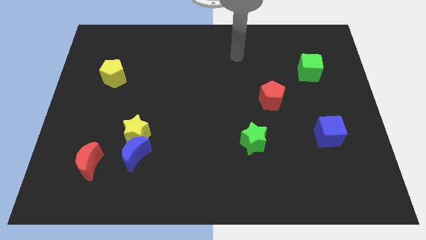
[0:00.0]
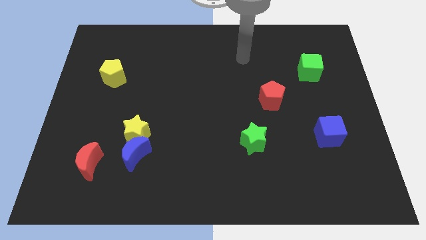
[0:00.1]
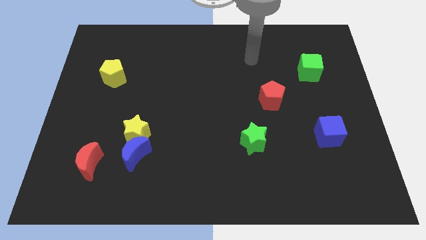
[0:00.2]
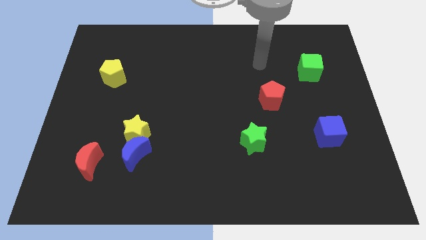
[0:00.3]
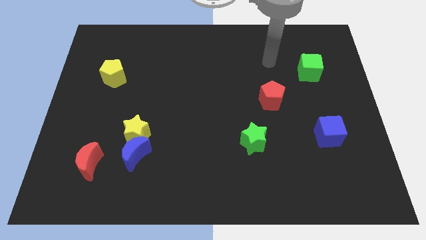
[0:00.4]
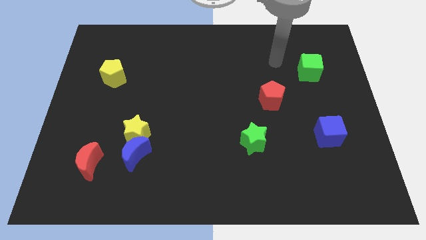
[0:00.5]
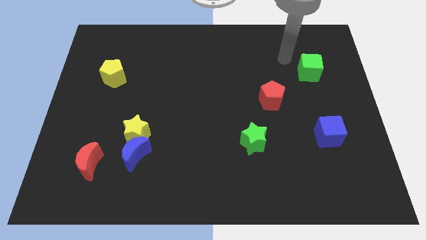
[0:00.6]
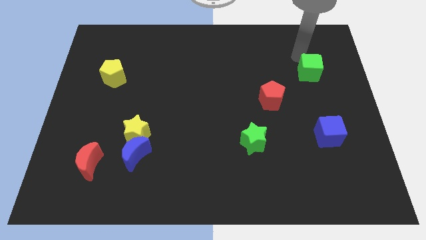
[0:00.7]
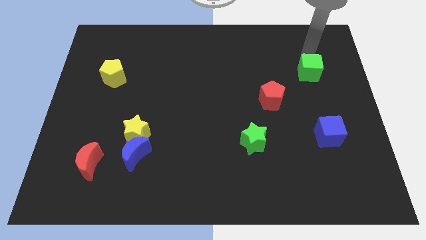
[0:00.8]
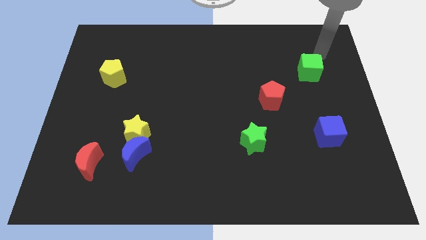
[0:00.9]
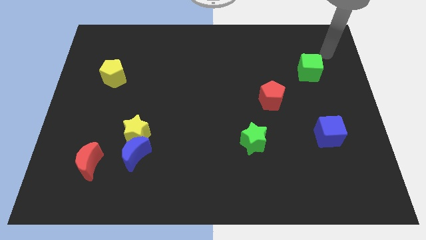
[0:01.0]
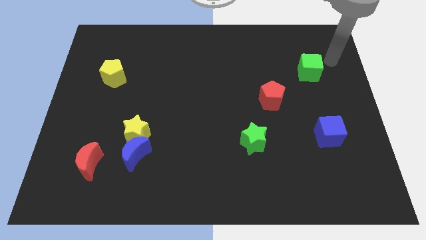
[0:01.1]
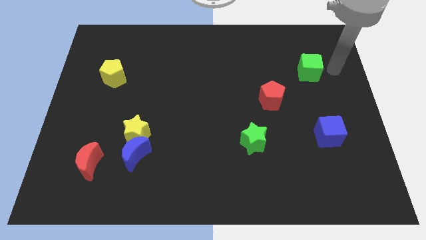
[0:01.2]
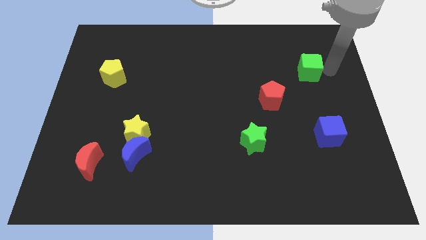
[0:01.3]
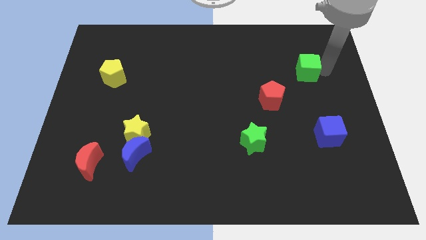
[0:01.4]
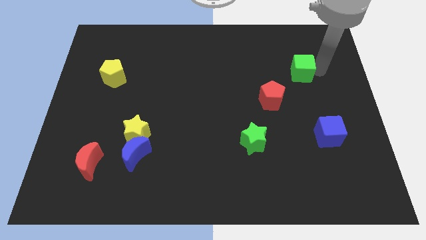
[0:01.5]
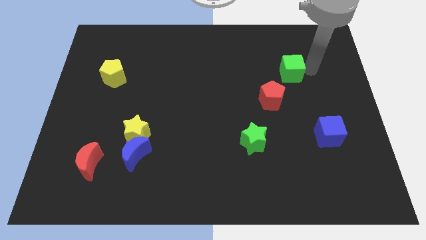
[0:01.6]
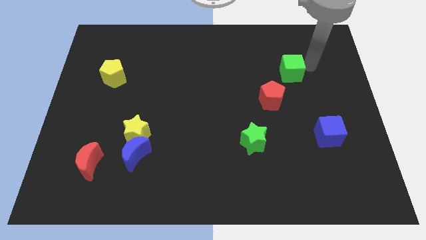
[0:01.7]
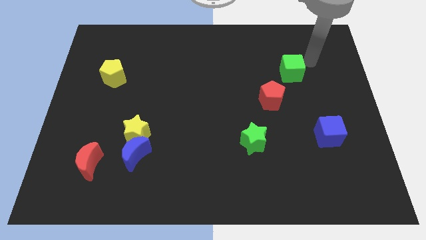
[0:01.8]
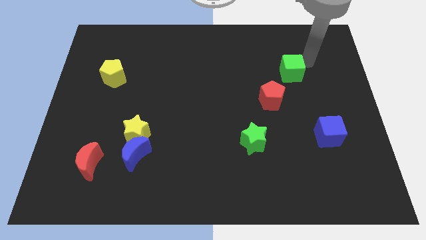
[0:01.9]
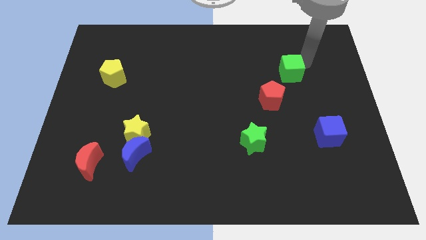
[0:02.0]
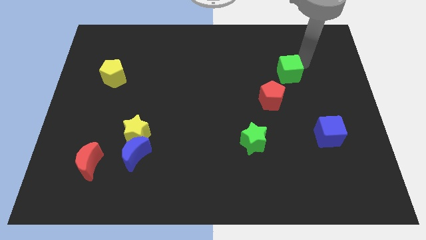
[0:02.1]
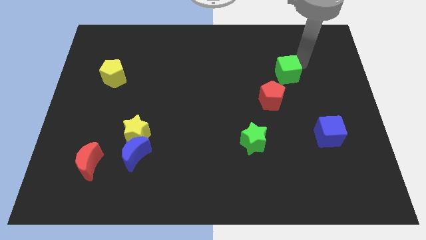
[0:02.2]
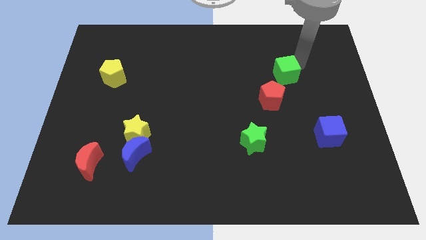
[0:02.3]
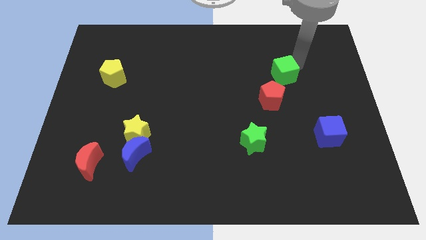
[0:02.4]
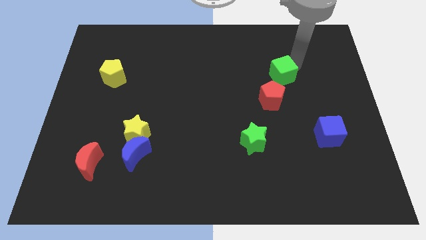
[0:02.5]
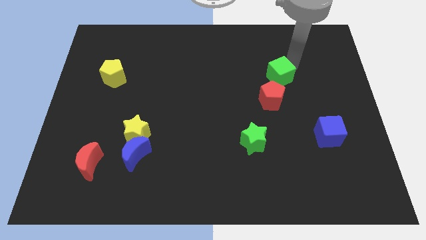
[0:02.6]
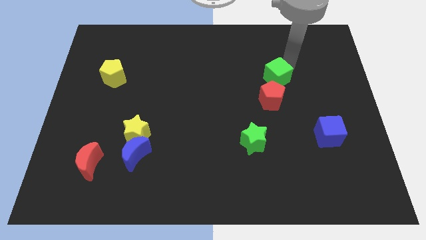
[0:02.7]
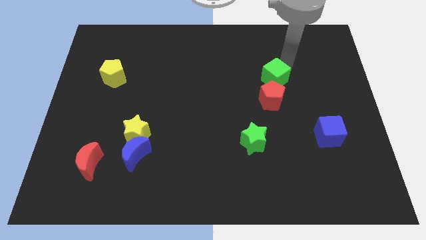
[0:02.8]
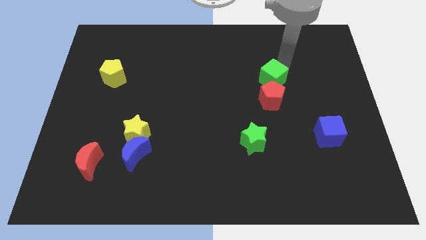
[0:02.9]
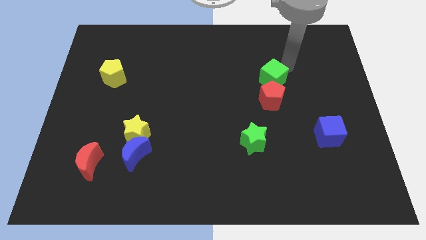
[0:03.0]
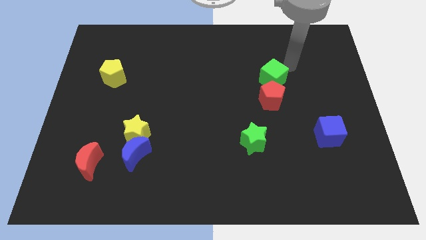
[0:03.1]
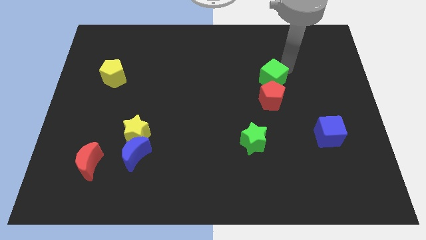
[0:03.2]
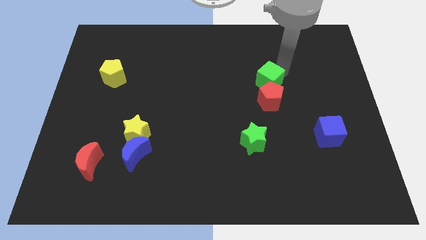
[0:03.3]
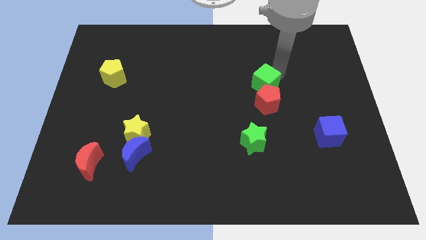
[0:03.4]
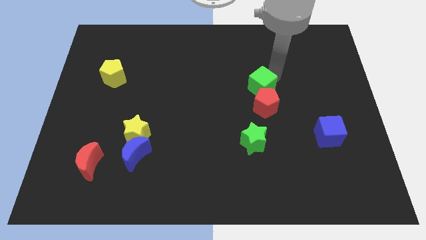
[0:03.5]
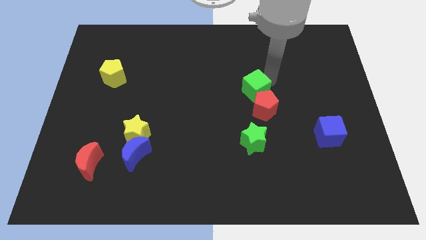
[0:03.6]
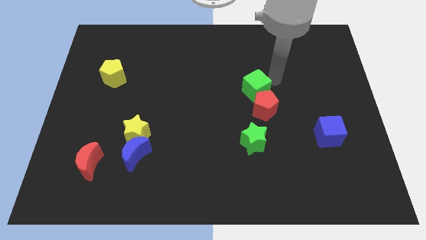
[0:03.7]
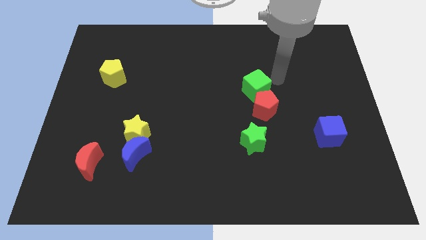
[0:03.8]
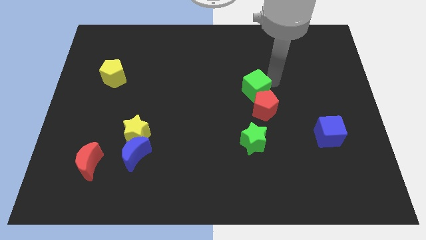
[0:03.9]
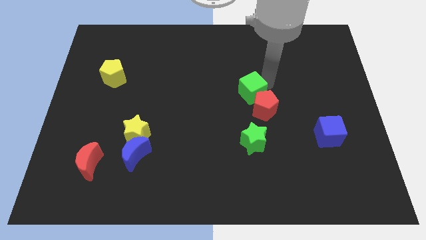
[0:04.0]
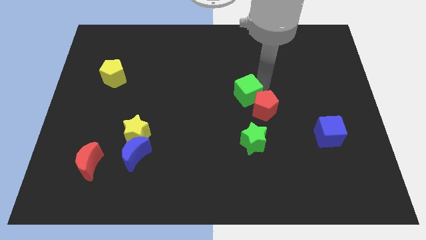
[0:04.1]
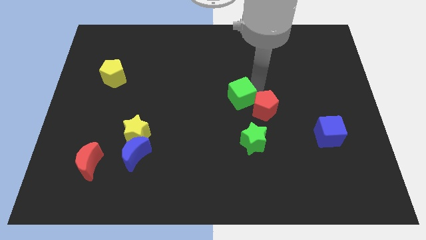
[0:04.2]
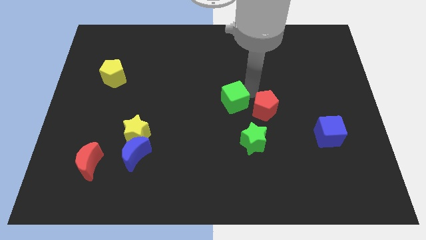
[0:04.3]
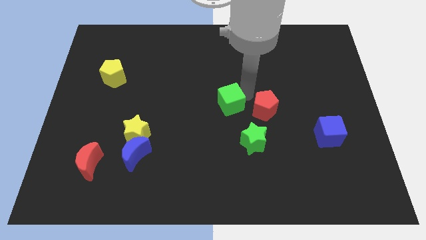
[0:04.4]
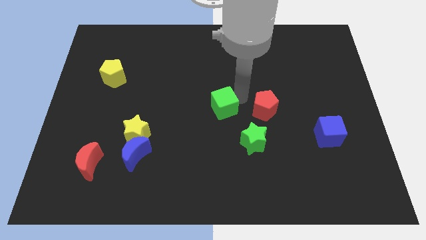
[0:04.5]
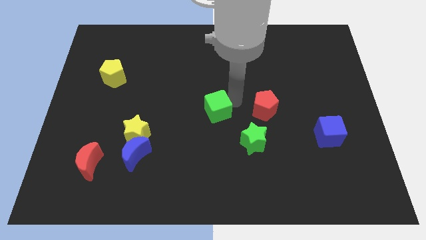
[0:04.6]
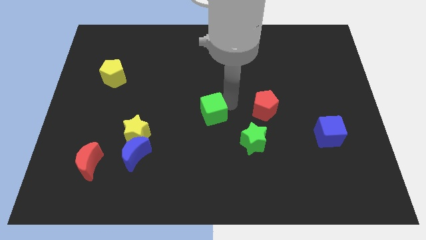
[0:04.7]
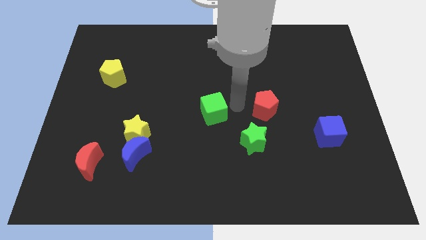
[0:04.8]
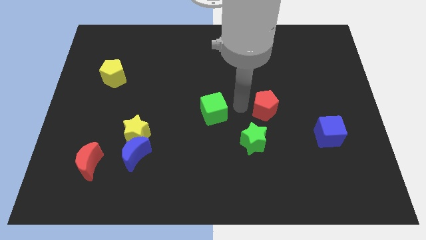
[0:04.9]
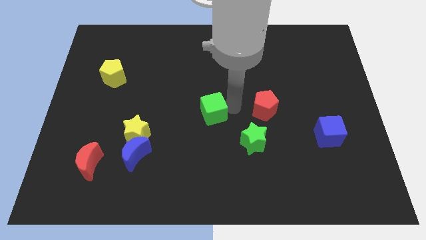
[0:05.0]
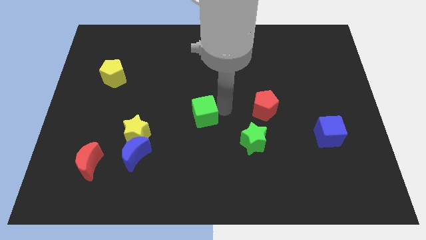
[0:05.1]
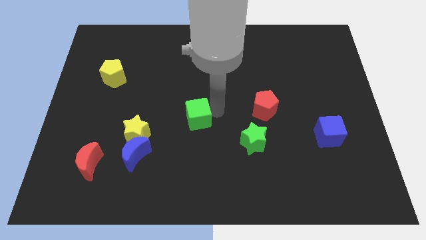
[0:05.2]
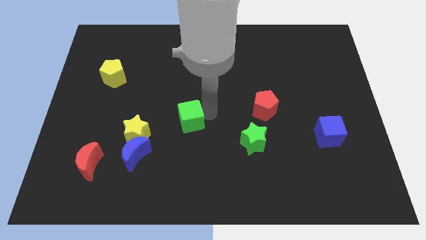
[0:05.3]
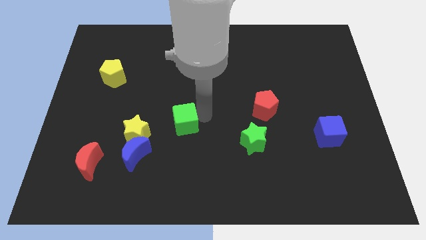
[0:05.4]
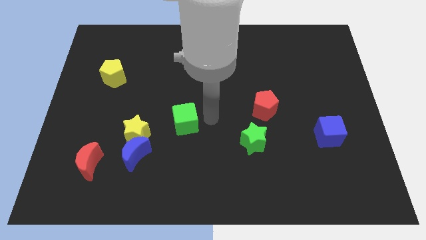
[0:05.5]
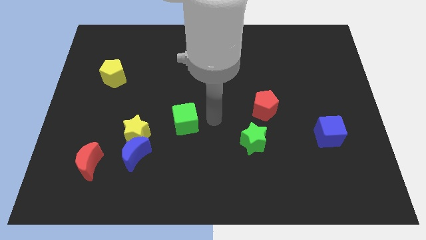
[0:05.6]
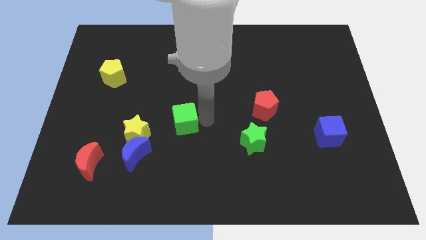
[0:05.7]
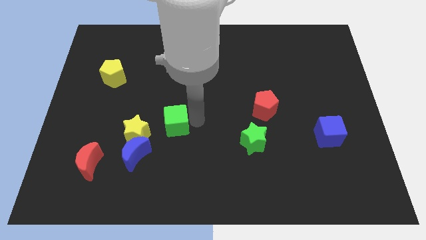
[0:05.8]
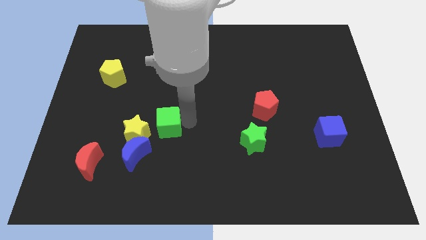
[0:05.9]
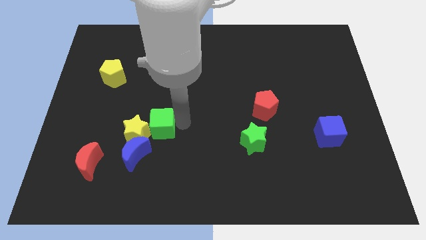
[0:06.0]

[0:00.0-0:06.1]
move the green cube towards the yellow star

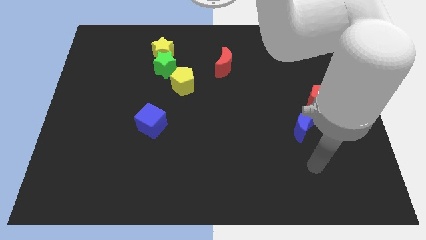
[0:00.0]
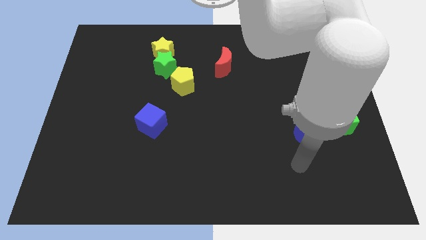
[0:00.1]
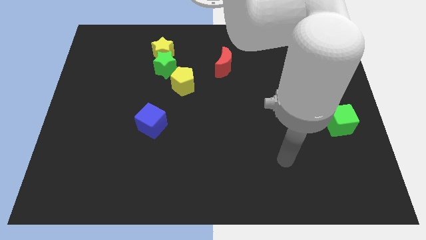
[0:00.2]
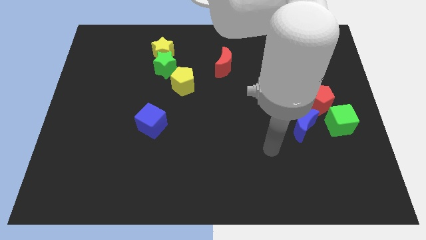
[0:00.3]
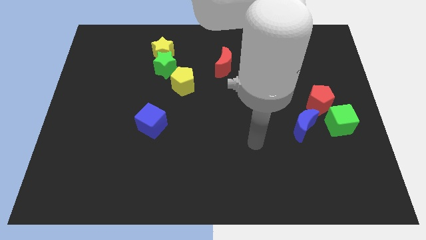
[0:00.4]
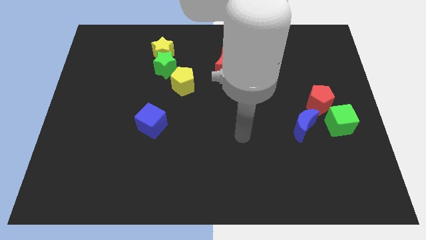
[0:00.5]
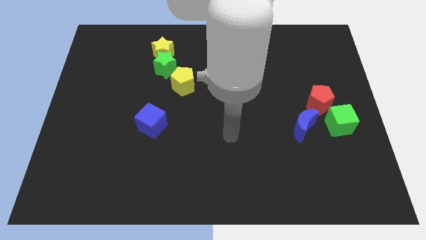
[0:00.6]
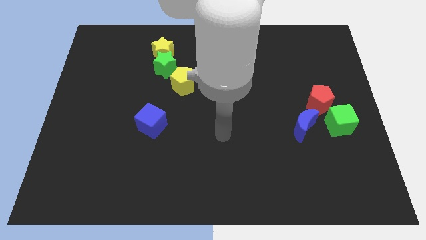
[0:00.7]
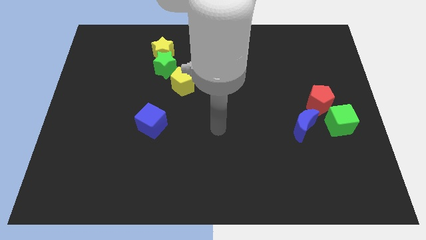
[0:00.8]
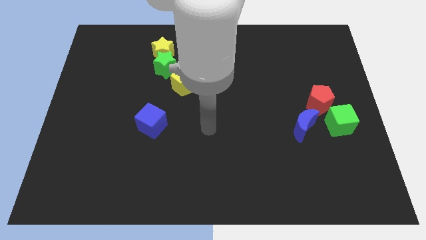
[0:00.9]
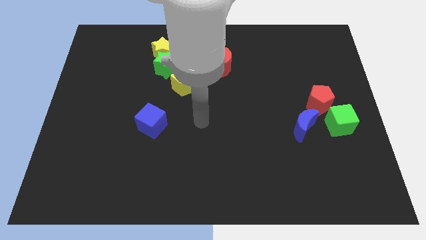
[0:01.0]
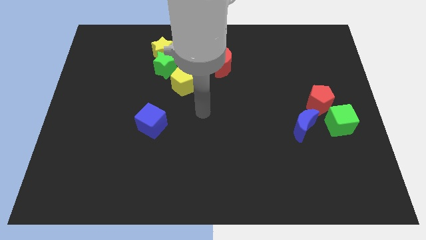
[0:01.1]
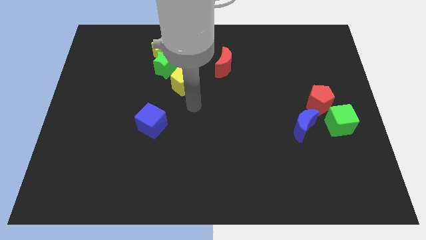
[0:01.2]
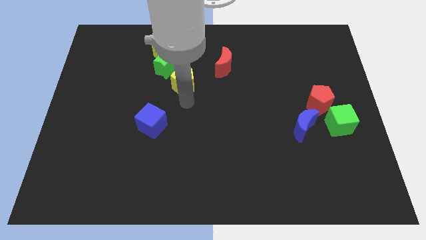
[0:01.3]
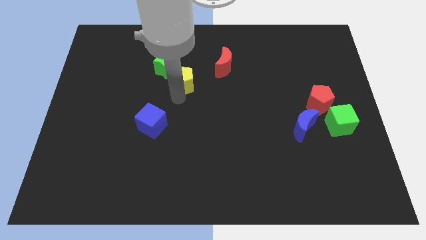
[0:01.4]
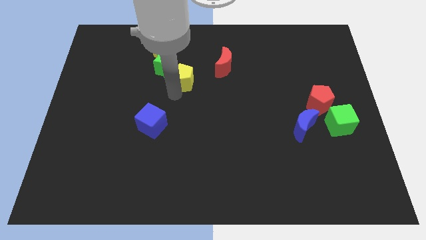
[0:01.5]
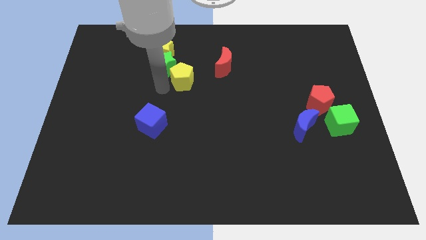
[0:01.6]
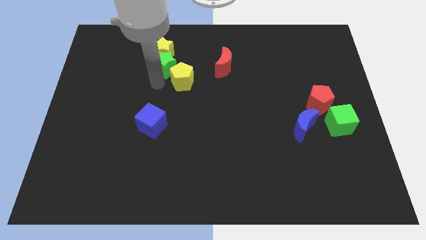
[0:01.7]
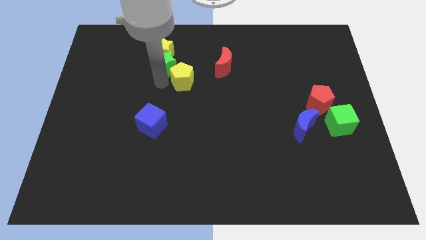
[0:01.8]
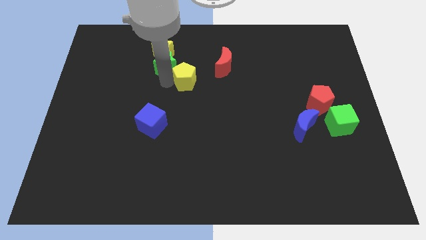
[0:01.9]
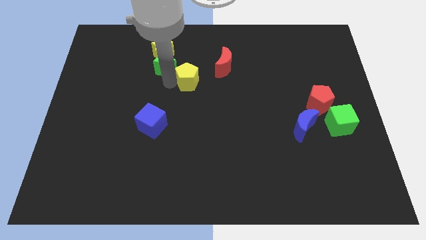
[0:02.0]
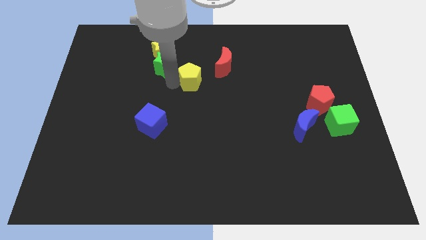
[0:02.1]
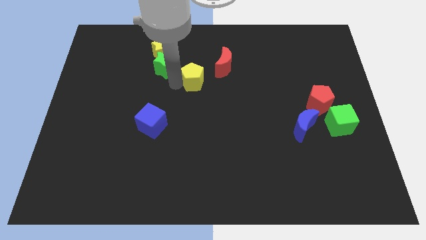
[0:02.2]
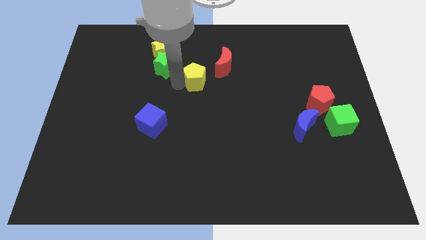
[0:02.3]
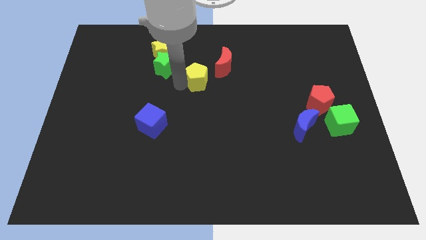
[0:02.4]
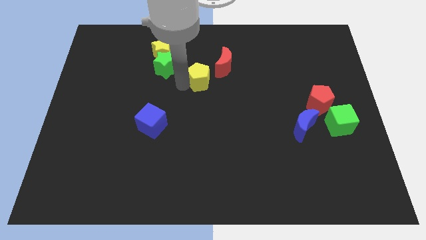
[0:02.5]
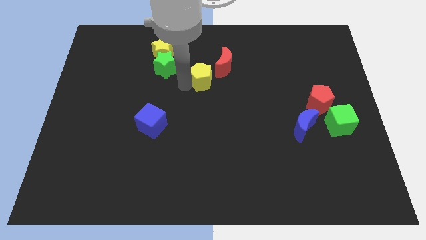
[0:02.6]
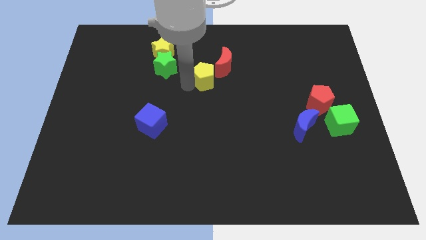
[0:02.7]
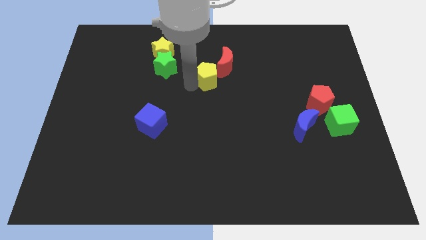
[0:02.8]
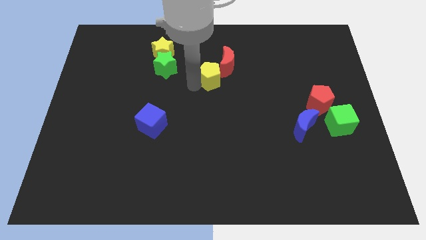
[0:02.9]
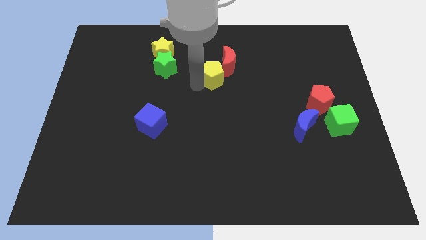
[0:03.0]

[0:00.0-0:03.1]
put the yellow pentagon next to the red moon
